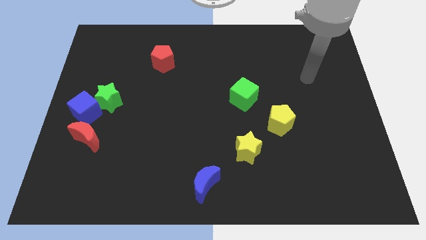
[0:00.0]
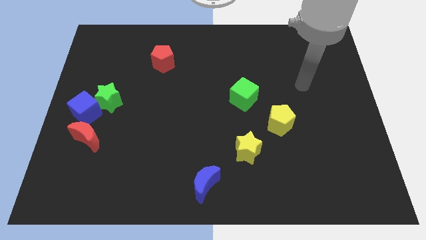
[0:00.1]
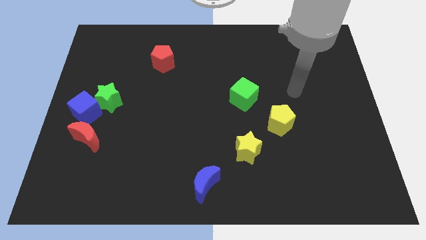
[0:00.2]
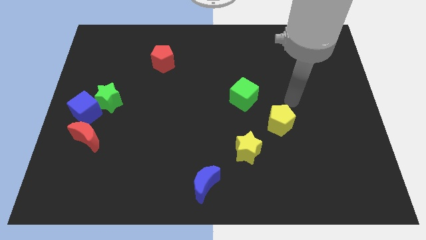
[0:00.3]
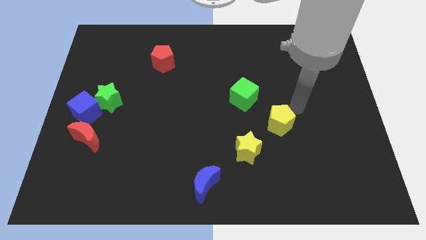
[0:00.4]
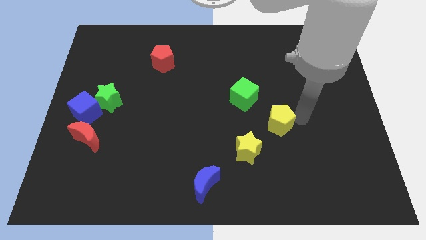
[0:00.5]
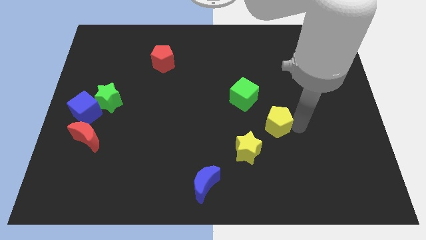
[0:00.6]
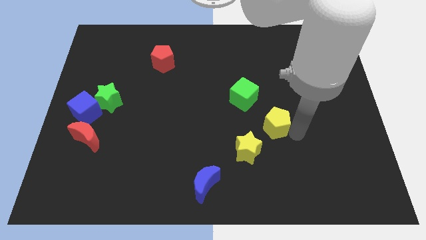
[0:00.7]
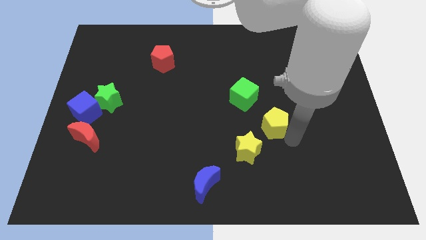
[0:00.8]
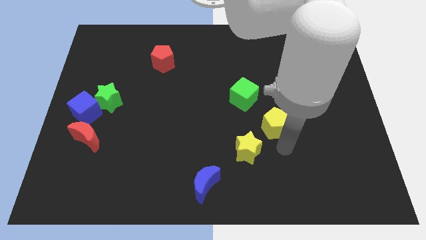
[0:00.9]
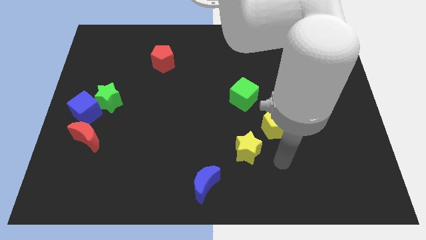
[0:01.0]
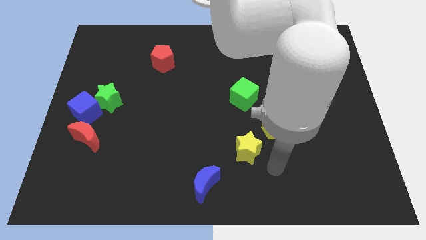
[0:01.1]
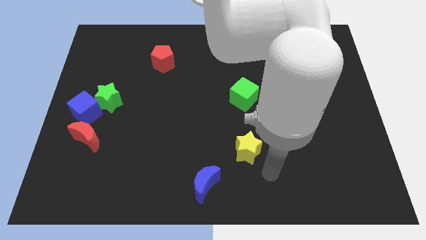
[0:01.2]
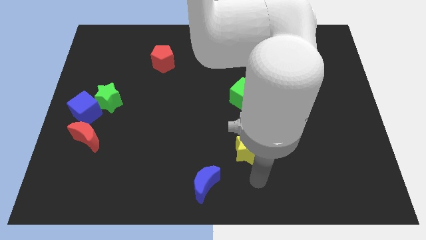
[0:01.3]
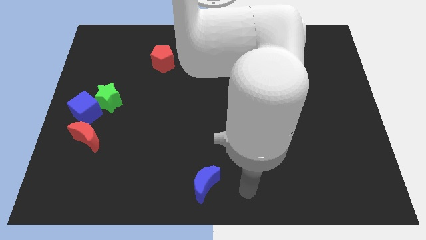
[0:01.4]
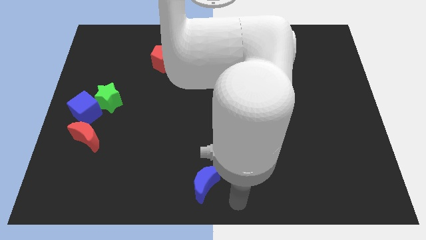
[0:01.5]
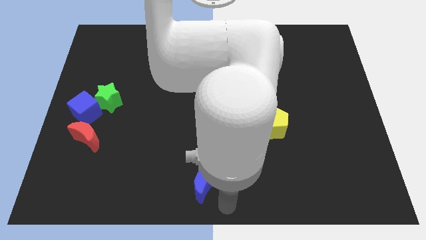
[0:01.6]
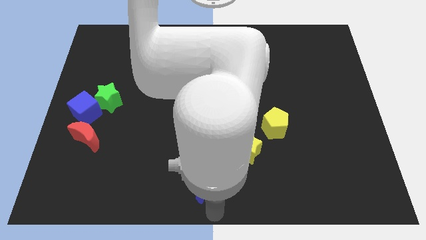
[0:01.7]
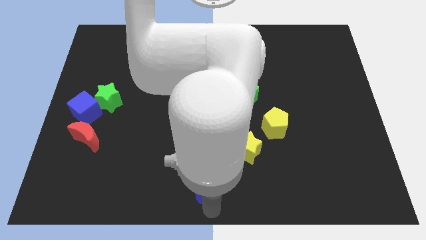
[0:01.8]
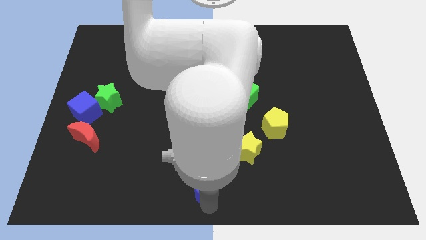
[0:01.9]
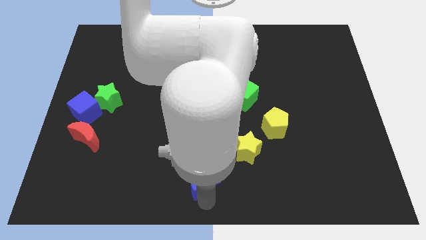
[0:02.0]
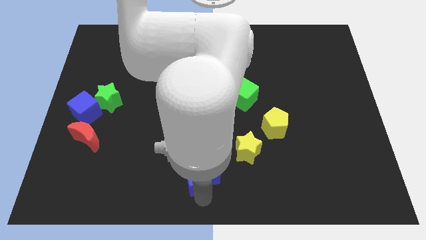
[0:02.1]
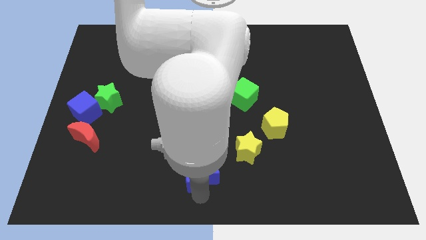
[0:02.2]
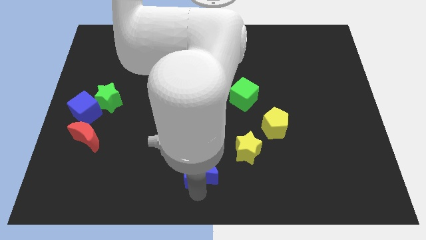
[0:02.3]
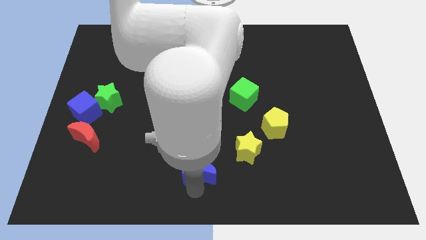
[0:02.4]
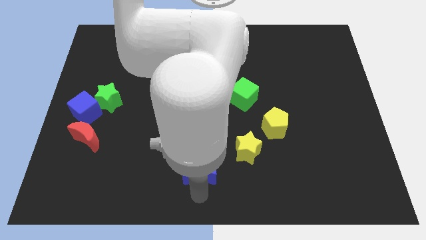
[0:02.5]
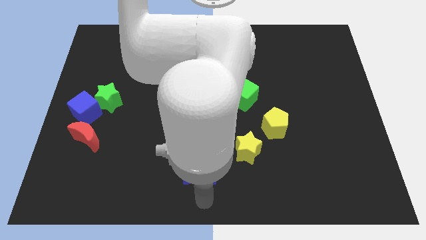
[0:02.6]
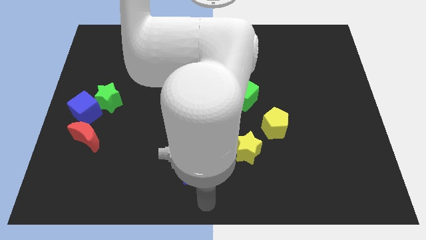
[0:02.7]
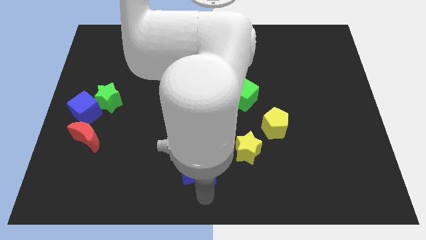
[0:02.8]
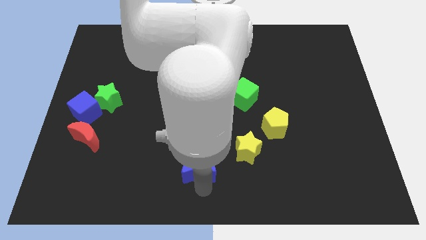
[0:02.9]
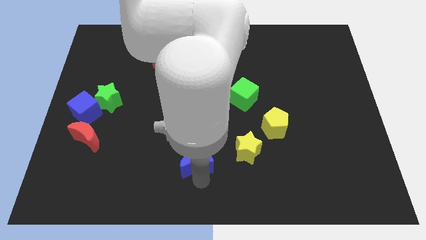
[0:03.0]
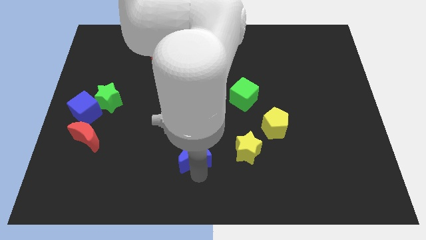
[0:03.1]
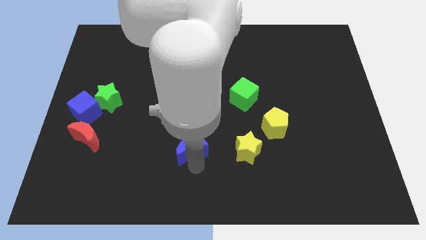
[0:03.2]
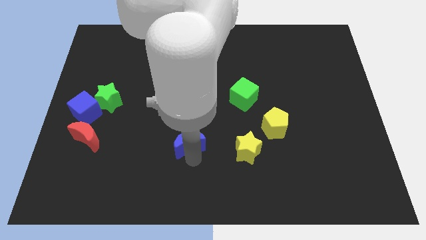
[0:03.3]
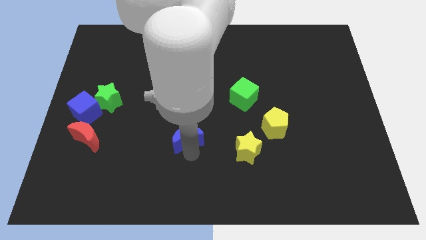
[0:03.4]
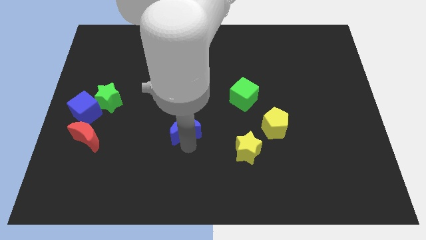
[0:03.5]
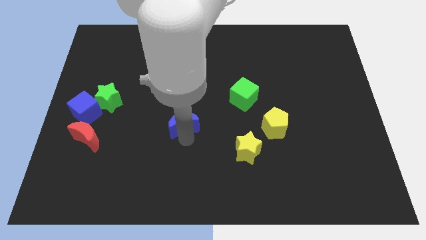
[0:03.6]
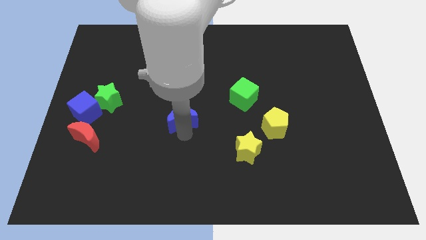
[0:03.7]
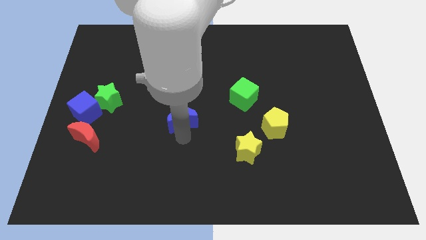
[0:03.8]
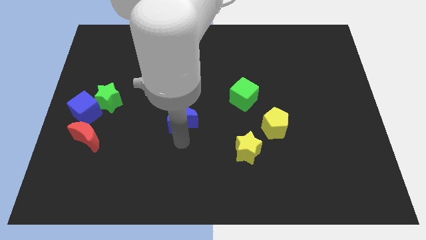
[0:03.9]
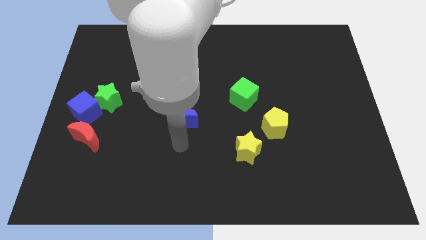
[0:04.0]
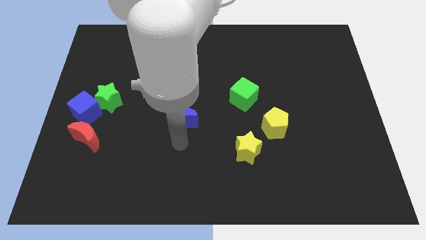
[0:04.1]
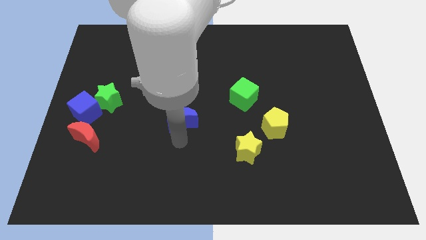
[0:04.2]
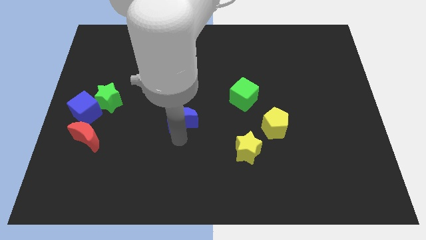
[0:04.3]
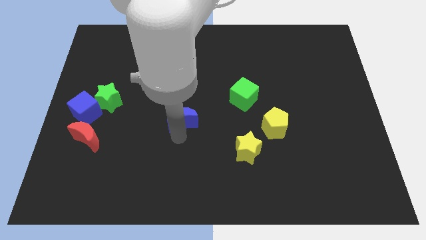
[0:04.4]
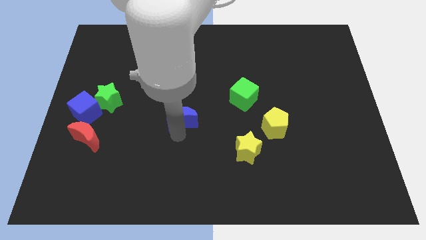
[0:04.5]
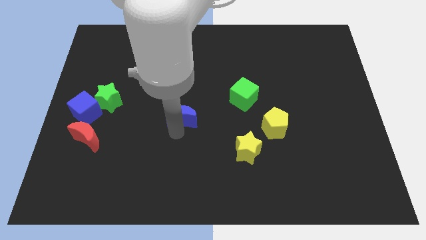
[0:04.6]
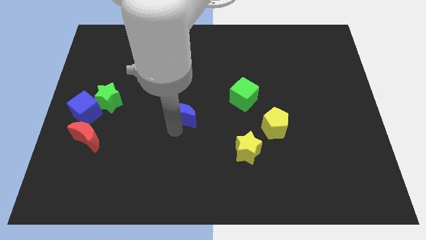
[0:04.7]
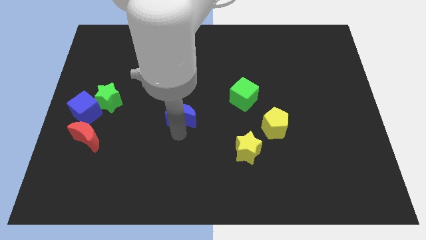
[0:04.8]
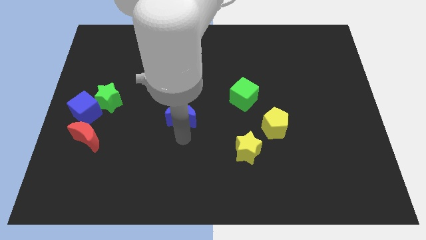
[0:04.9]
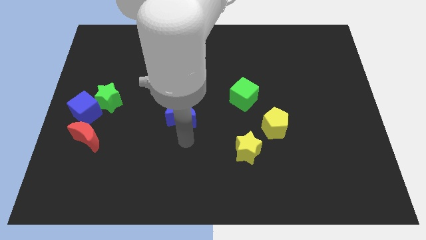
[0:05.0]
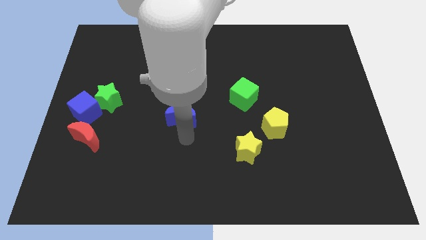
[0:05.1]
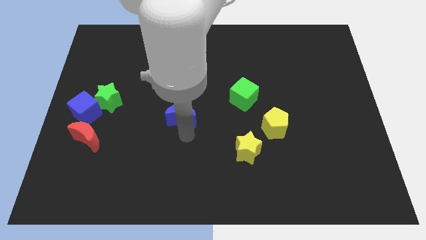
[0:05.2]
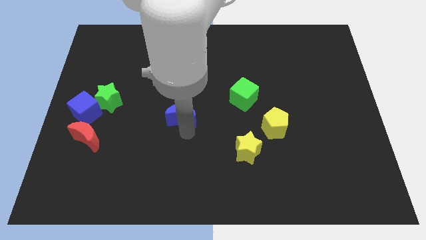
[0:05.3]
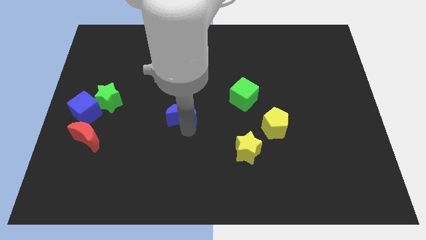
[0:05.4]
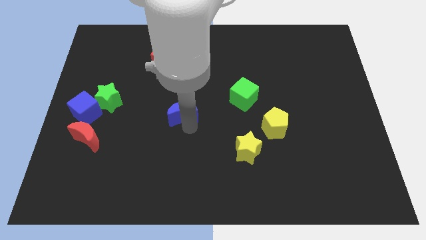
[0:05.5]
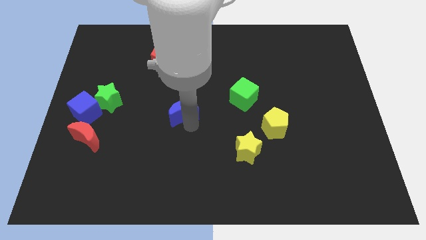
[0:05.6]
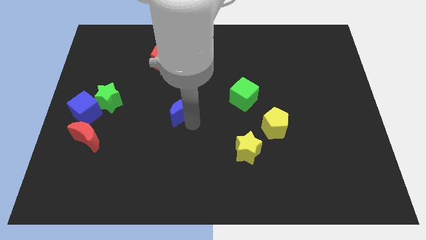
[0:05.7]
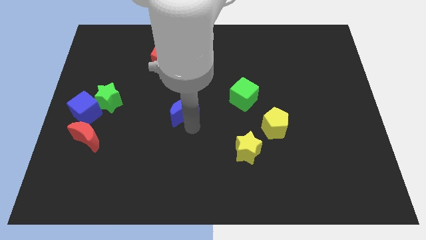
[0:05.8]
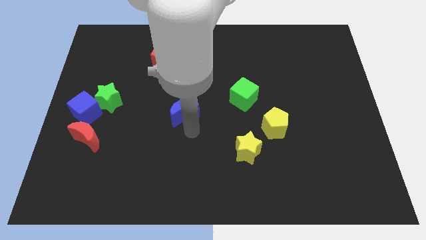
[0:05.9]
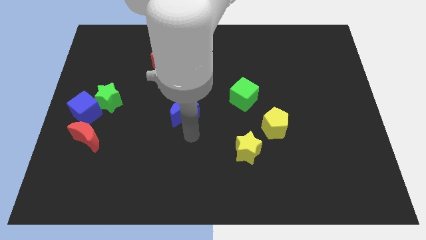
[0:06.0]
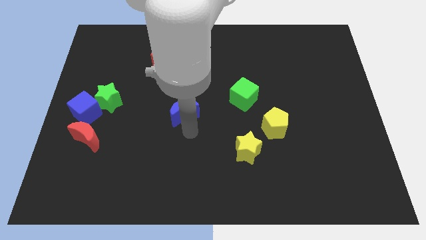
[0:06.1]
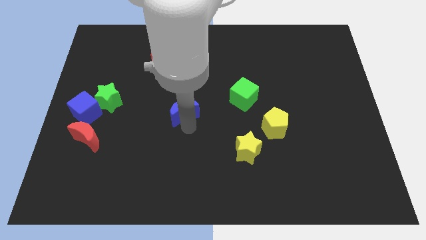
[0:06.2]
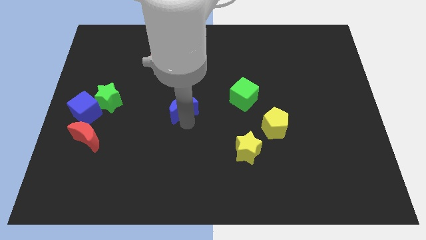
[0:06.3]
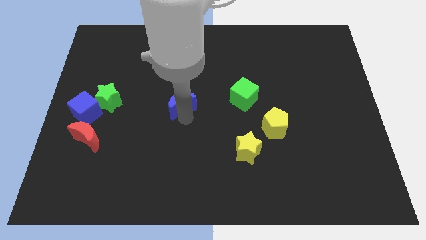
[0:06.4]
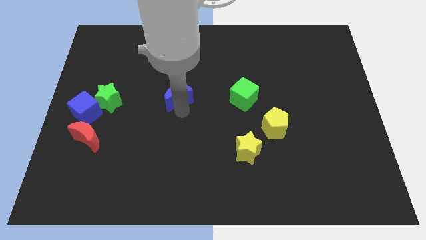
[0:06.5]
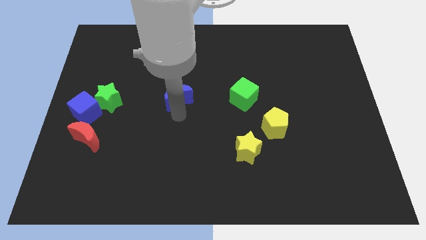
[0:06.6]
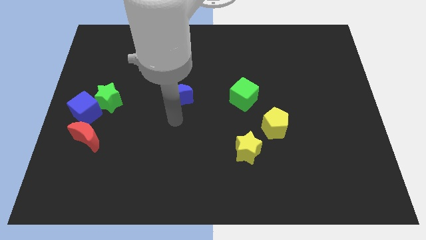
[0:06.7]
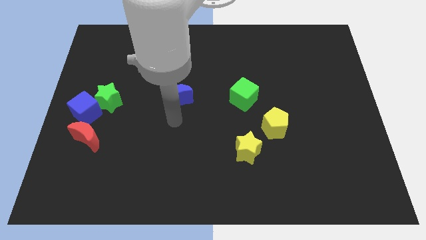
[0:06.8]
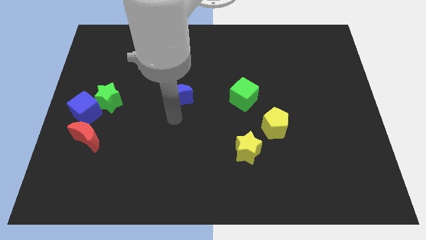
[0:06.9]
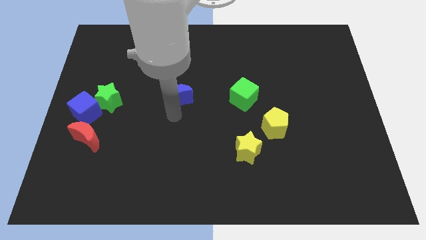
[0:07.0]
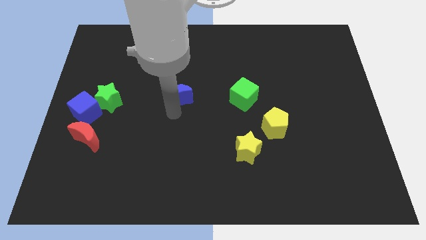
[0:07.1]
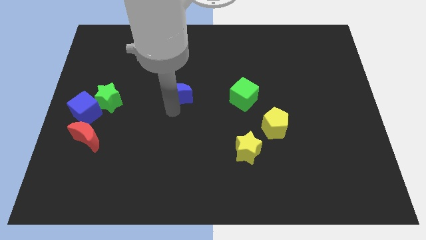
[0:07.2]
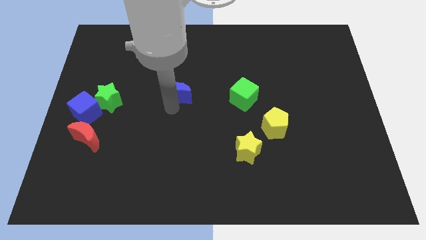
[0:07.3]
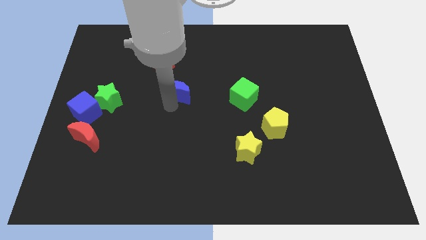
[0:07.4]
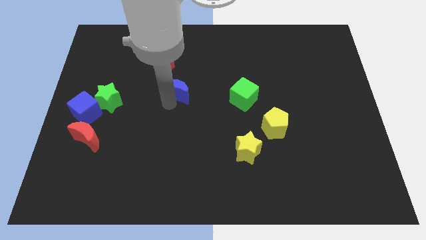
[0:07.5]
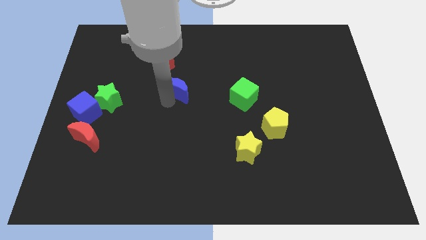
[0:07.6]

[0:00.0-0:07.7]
slide the blue moon to the bottom right of the red pentagon
